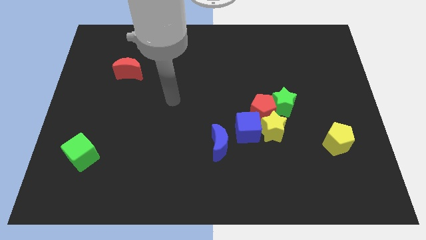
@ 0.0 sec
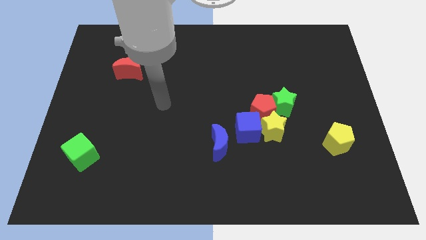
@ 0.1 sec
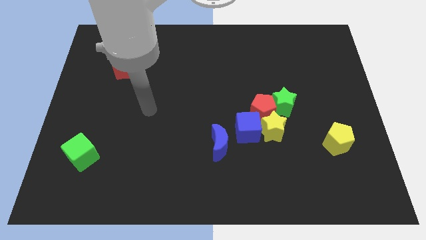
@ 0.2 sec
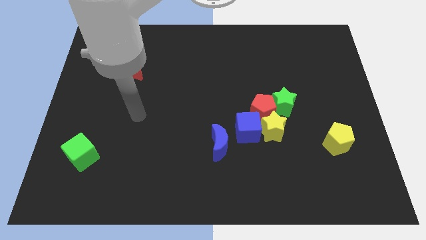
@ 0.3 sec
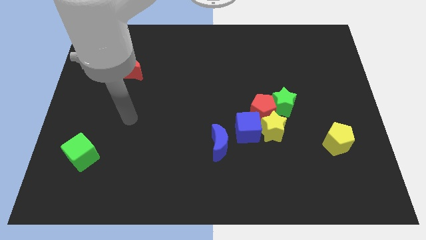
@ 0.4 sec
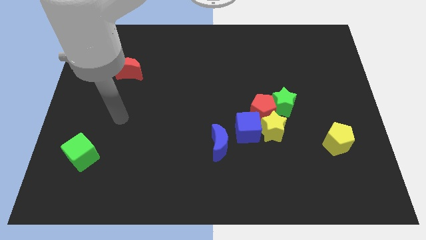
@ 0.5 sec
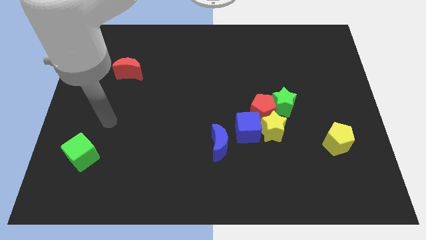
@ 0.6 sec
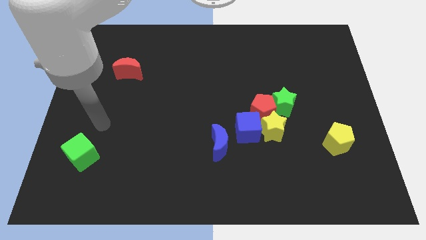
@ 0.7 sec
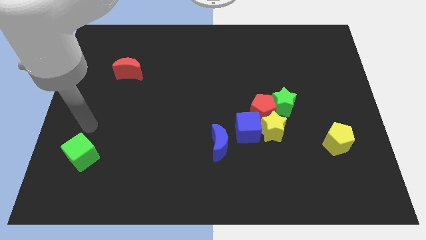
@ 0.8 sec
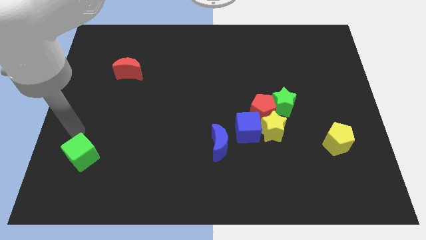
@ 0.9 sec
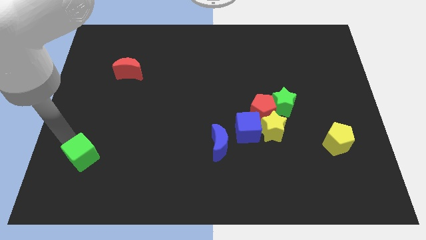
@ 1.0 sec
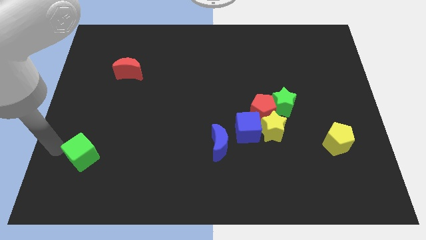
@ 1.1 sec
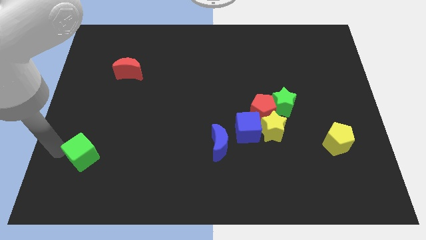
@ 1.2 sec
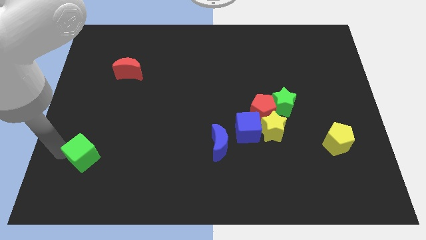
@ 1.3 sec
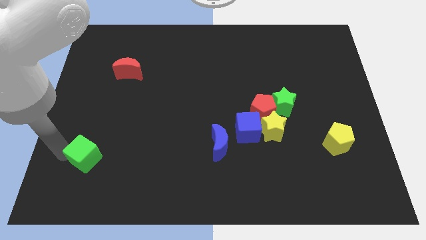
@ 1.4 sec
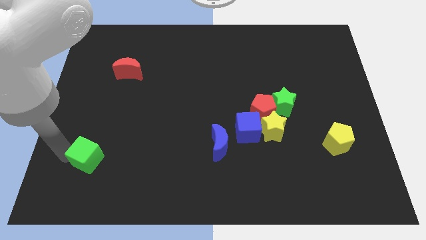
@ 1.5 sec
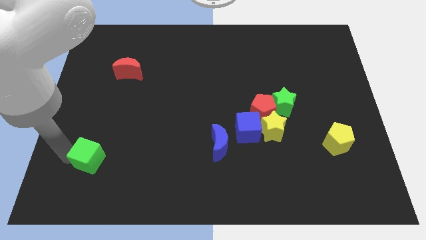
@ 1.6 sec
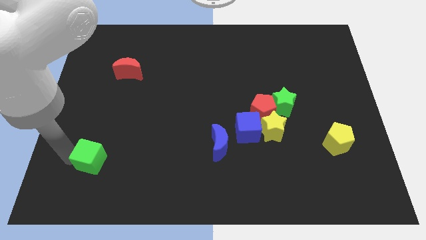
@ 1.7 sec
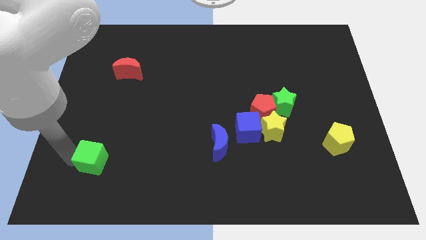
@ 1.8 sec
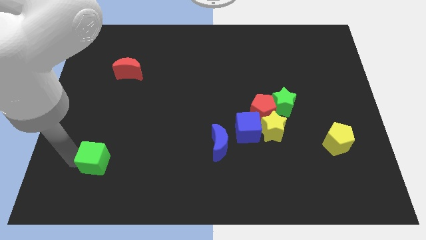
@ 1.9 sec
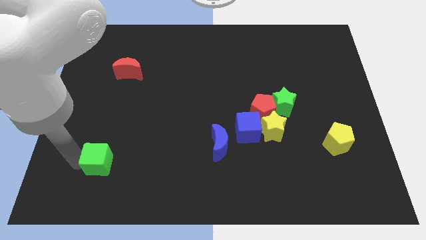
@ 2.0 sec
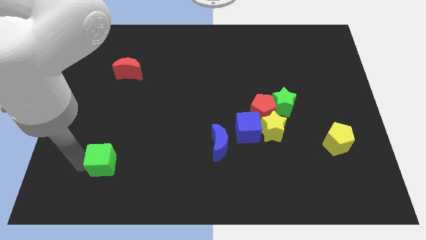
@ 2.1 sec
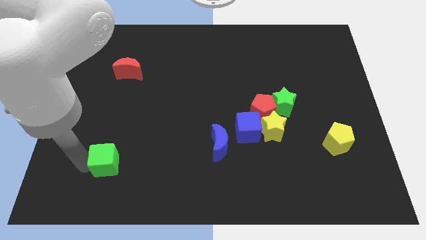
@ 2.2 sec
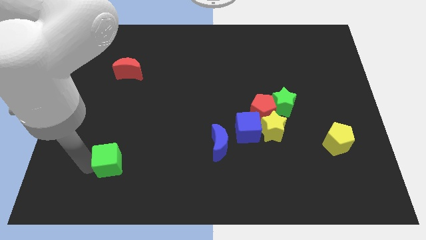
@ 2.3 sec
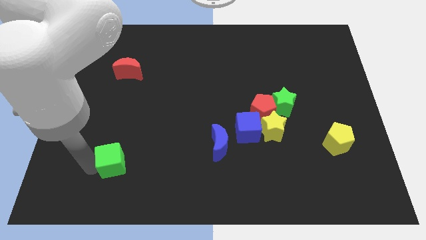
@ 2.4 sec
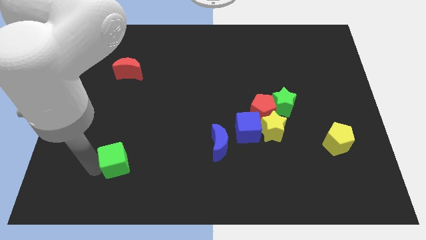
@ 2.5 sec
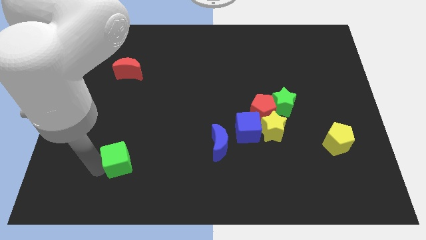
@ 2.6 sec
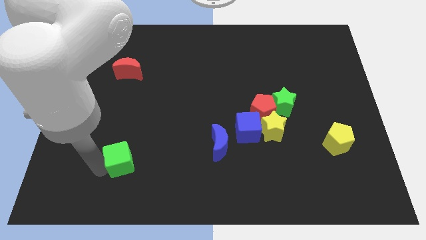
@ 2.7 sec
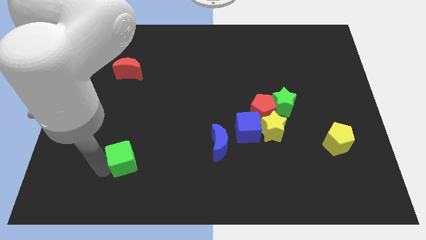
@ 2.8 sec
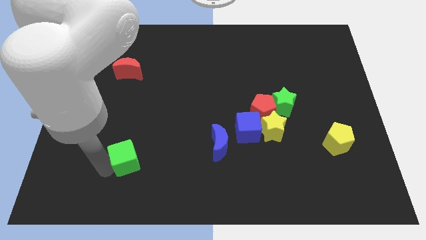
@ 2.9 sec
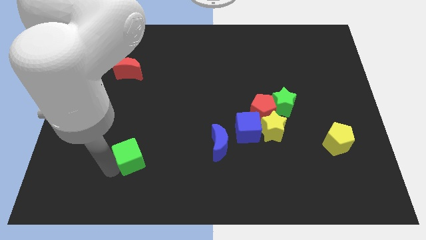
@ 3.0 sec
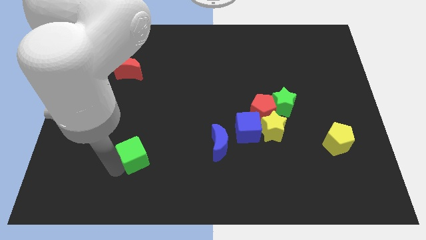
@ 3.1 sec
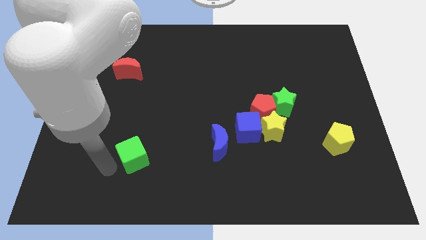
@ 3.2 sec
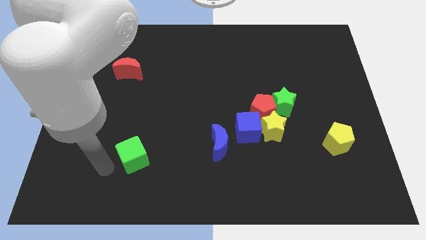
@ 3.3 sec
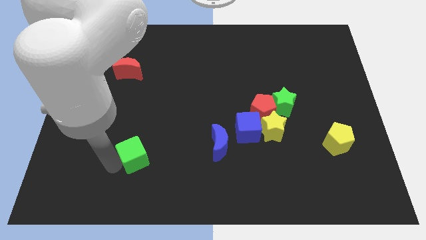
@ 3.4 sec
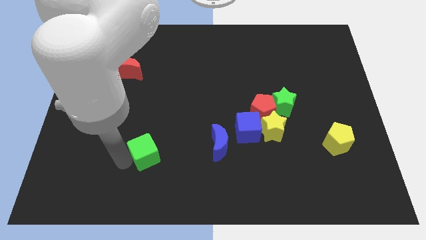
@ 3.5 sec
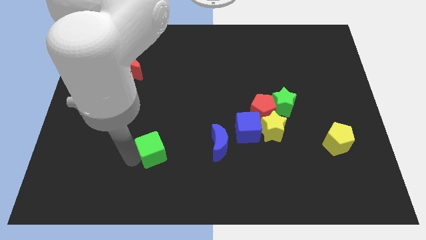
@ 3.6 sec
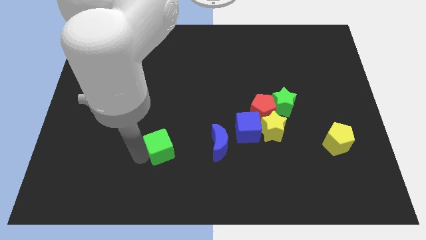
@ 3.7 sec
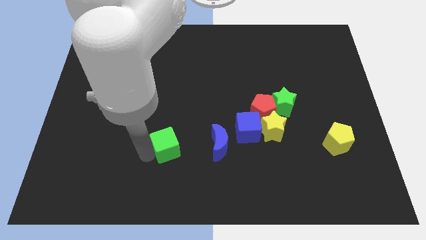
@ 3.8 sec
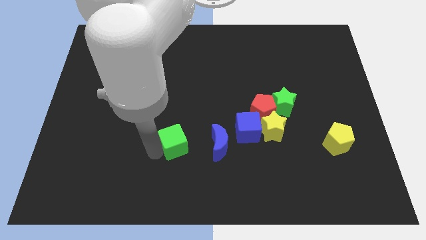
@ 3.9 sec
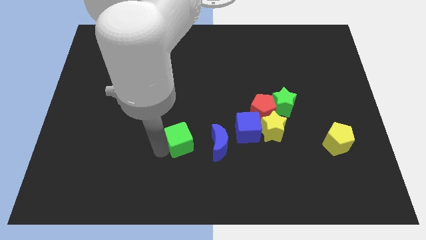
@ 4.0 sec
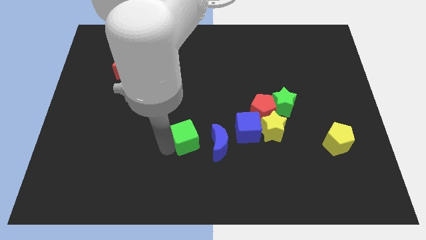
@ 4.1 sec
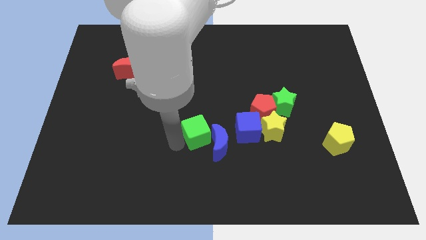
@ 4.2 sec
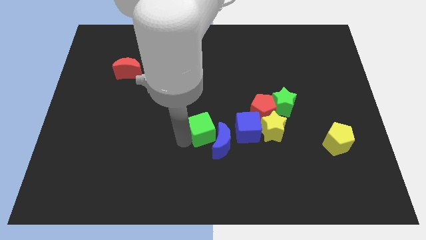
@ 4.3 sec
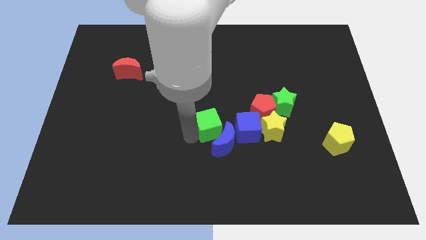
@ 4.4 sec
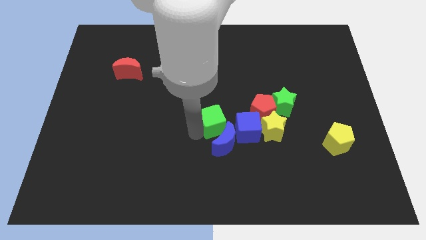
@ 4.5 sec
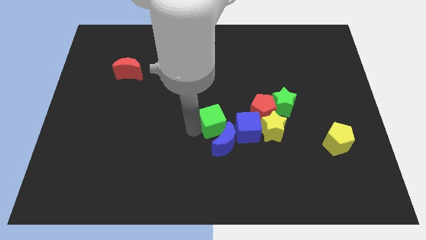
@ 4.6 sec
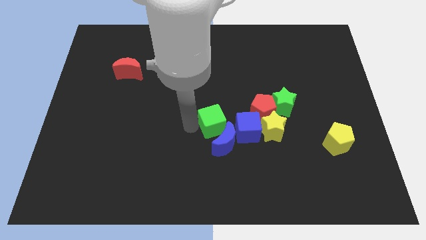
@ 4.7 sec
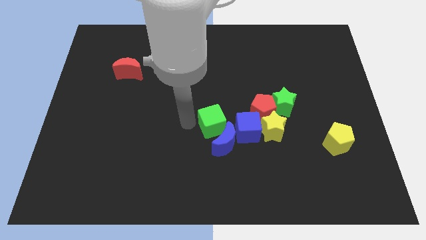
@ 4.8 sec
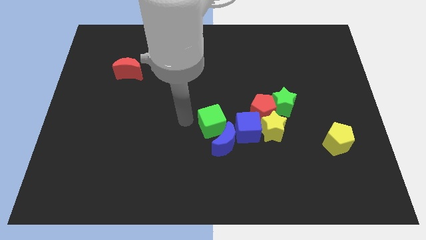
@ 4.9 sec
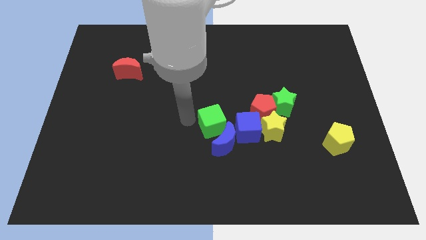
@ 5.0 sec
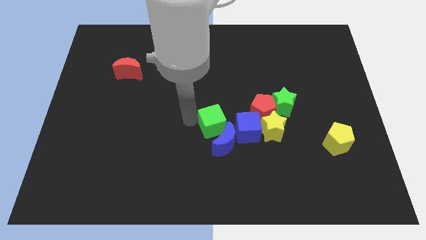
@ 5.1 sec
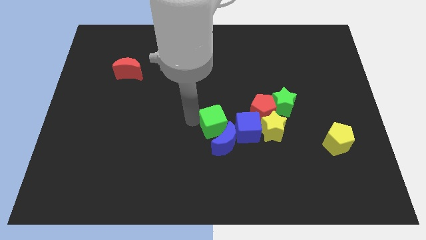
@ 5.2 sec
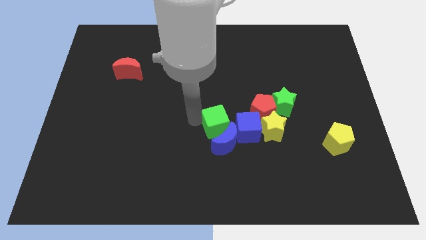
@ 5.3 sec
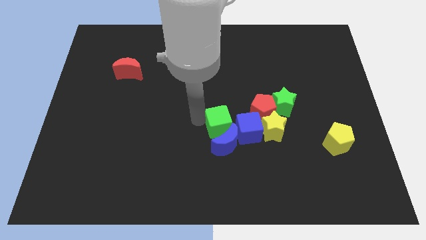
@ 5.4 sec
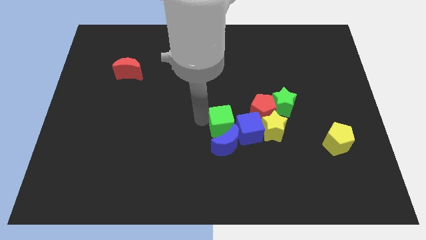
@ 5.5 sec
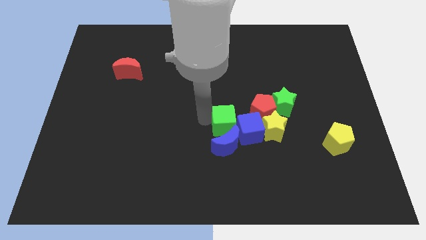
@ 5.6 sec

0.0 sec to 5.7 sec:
move the green cube close to the blue cube
